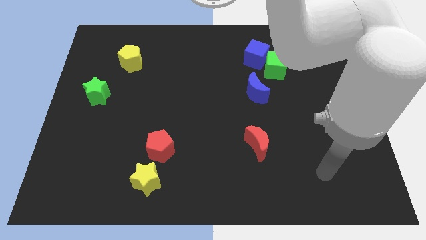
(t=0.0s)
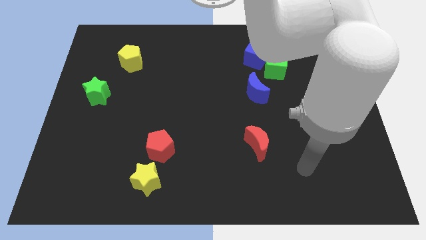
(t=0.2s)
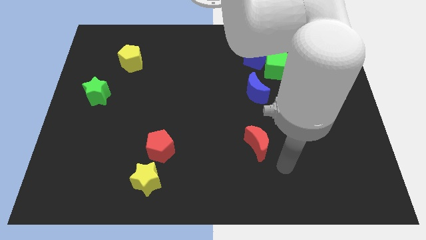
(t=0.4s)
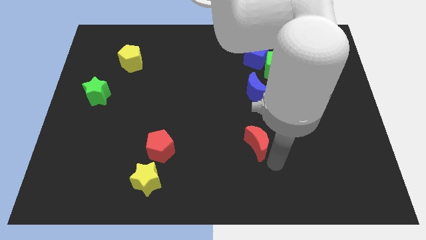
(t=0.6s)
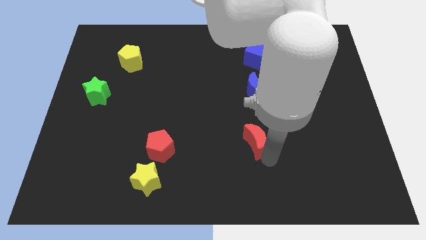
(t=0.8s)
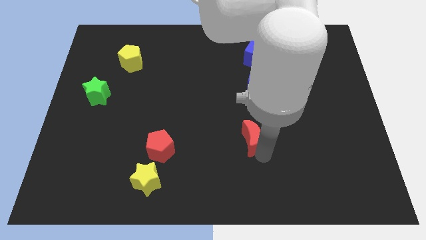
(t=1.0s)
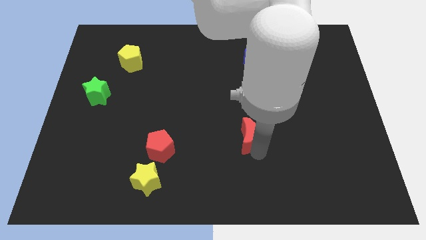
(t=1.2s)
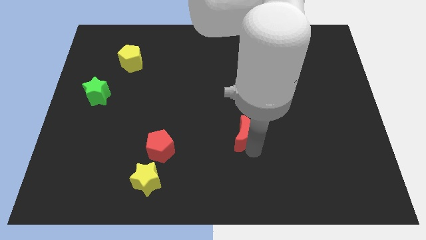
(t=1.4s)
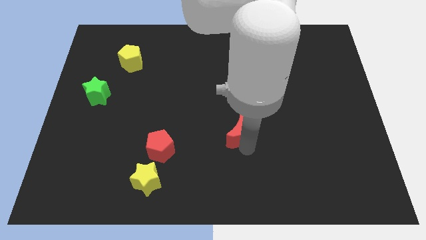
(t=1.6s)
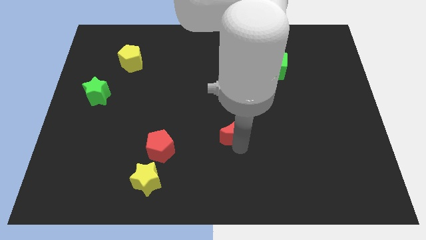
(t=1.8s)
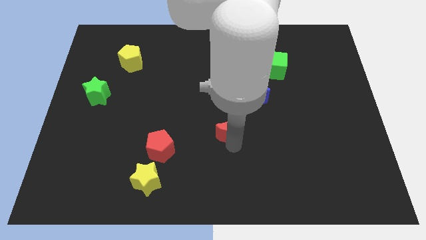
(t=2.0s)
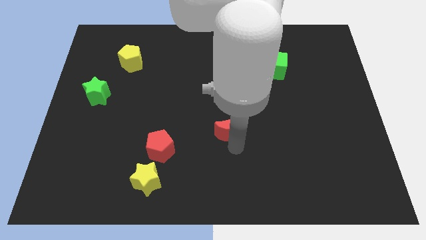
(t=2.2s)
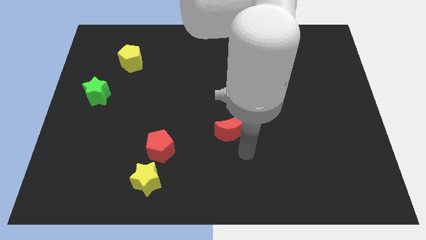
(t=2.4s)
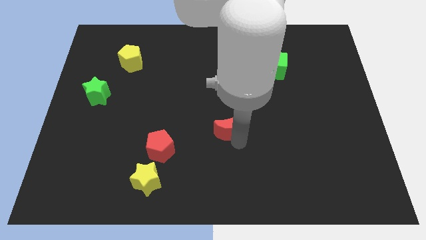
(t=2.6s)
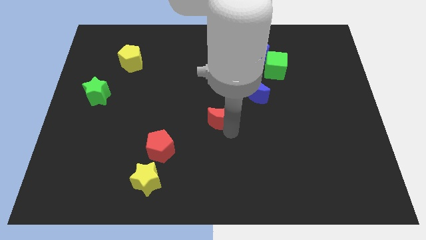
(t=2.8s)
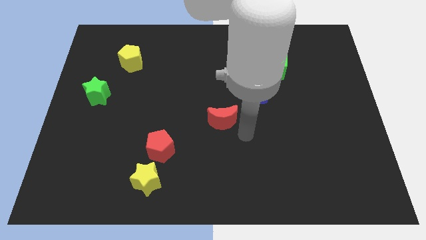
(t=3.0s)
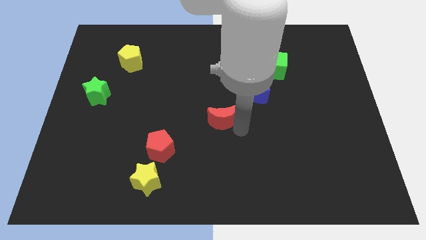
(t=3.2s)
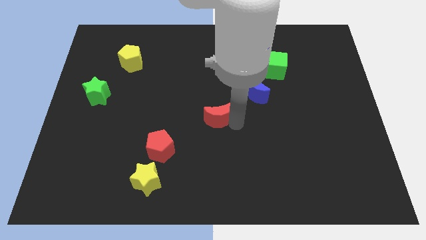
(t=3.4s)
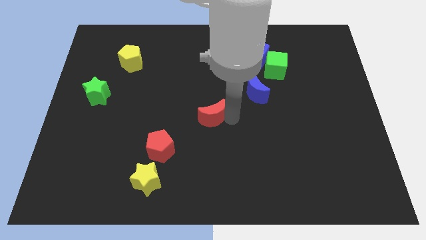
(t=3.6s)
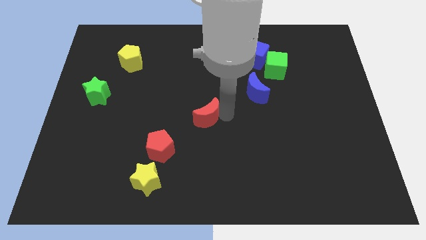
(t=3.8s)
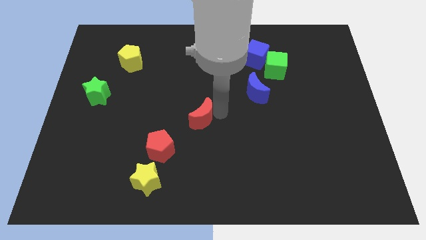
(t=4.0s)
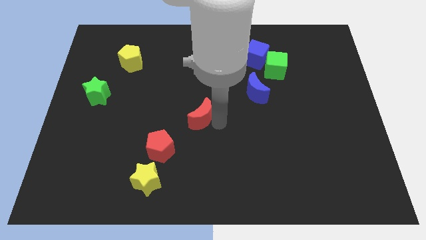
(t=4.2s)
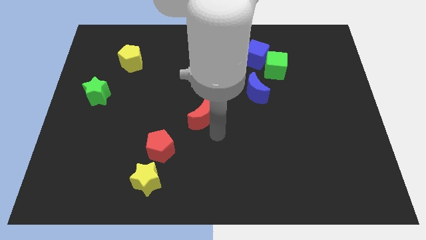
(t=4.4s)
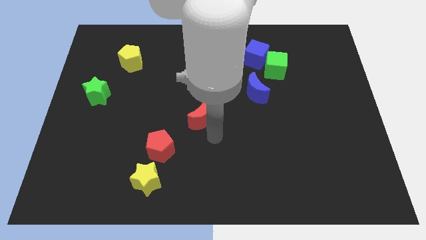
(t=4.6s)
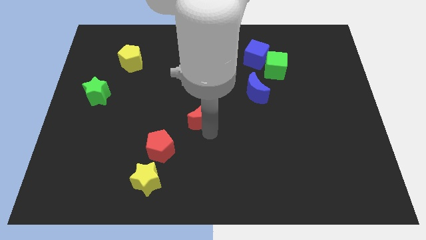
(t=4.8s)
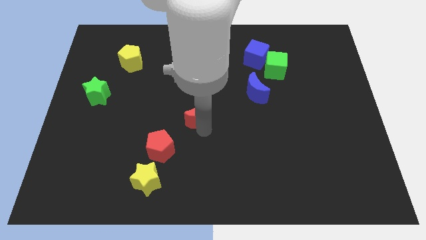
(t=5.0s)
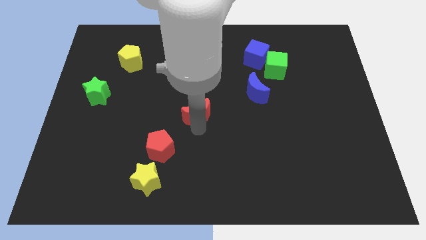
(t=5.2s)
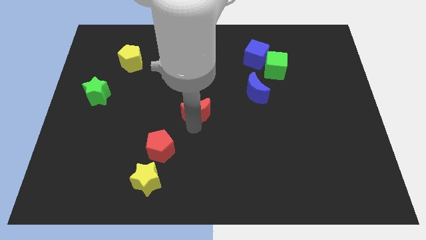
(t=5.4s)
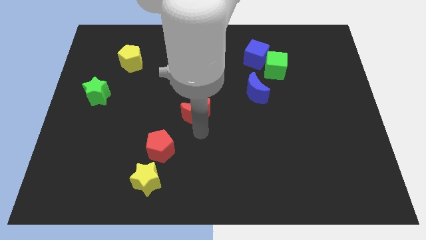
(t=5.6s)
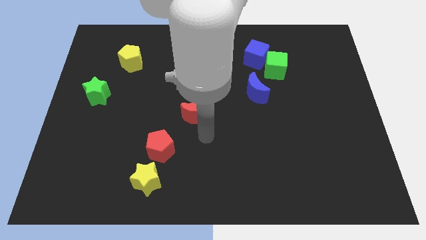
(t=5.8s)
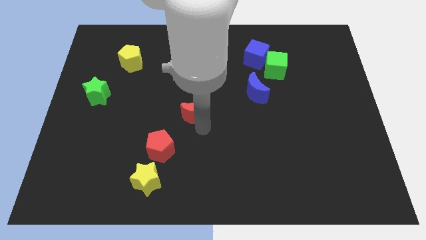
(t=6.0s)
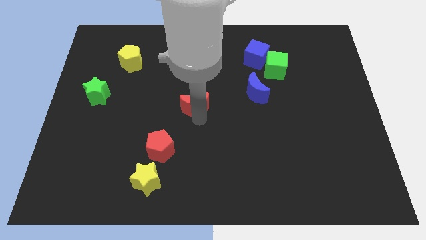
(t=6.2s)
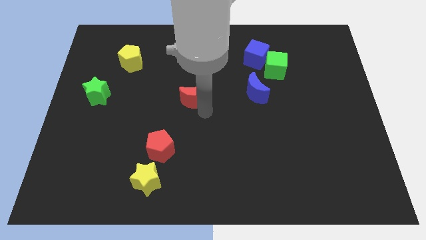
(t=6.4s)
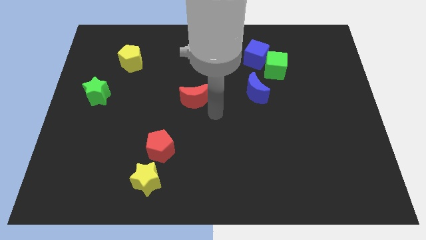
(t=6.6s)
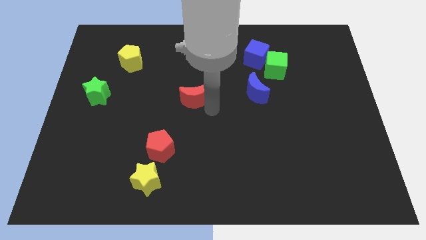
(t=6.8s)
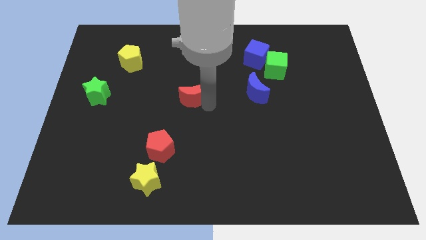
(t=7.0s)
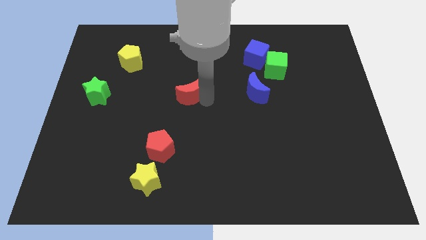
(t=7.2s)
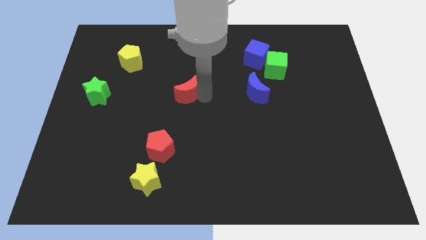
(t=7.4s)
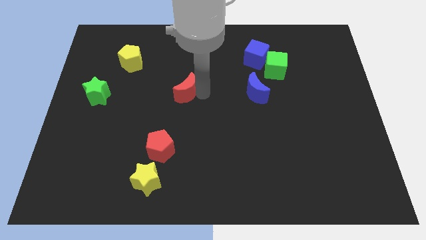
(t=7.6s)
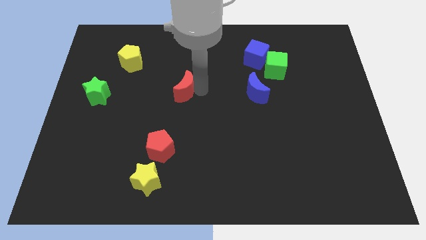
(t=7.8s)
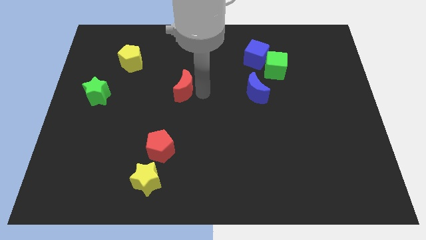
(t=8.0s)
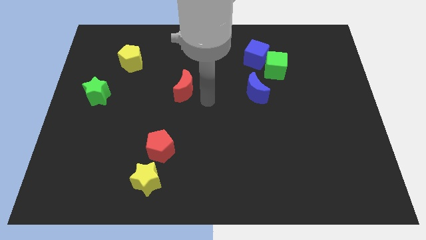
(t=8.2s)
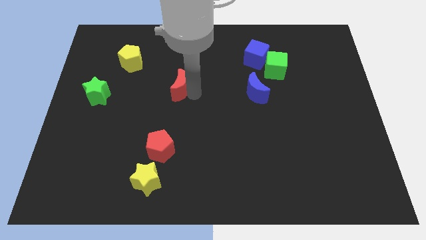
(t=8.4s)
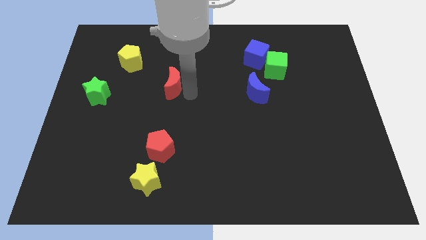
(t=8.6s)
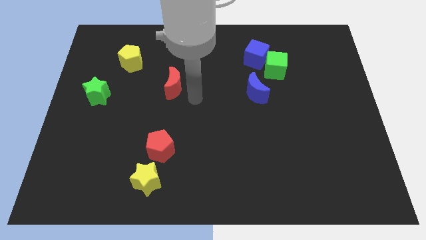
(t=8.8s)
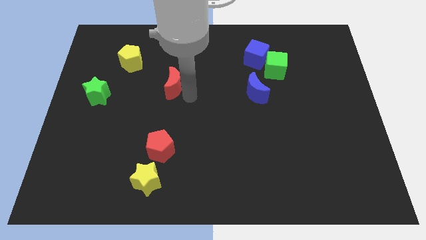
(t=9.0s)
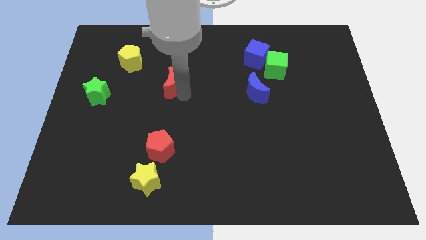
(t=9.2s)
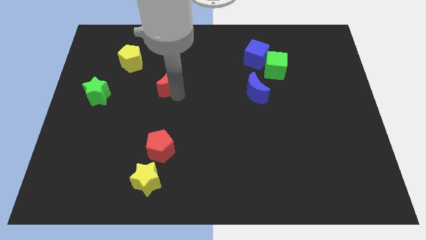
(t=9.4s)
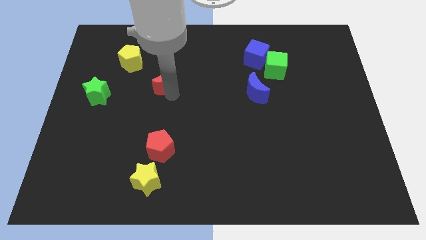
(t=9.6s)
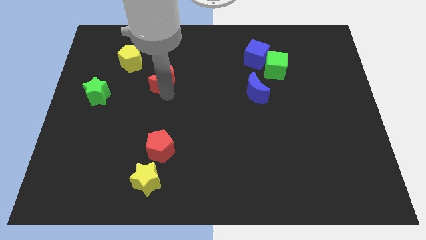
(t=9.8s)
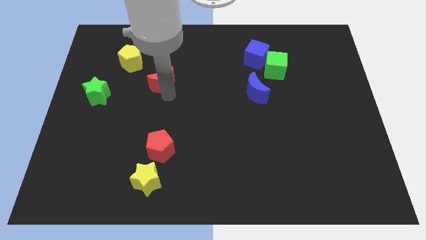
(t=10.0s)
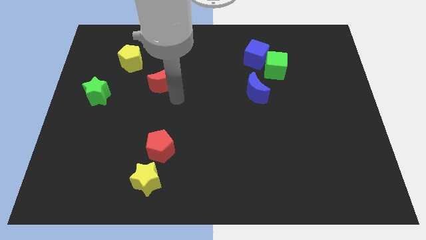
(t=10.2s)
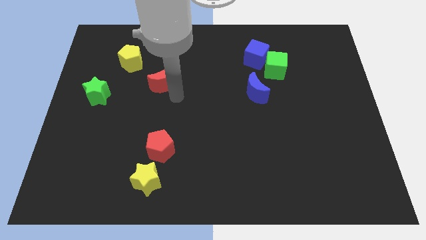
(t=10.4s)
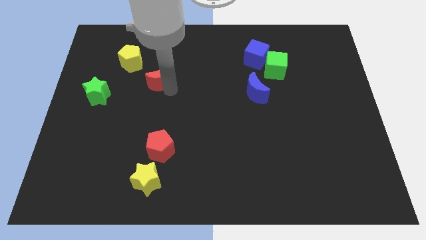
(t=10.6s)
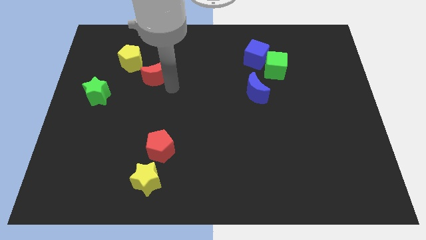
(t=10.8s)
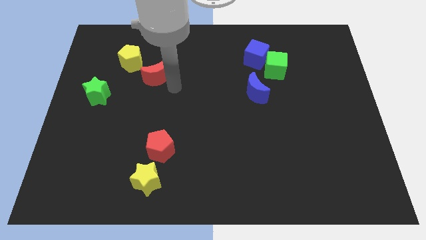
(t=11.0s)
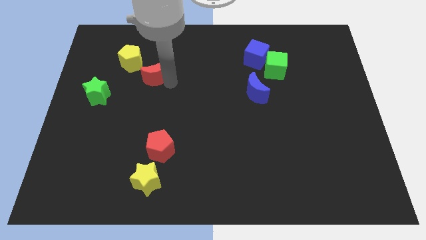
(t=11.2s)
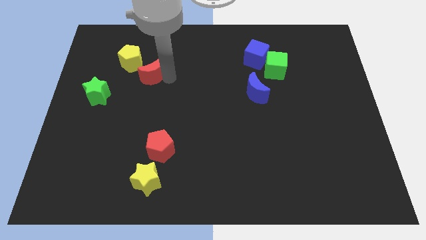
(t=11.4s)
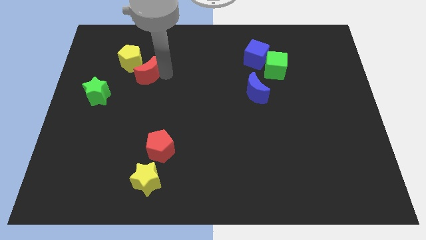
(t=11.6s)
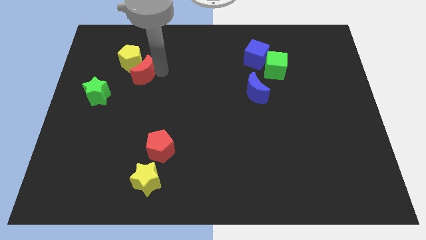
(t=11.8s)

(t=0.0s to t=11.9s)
put the red moon next to the yellow pentagon

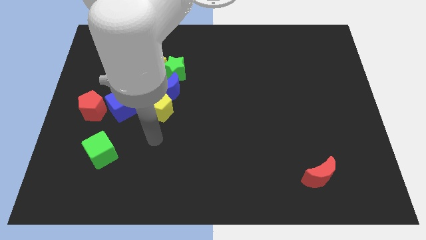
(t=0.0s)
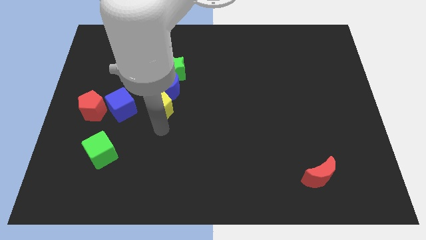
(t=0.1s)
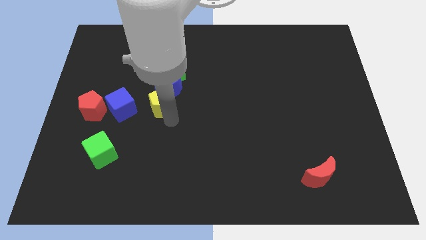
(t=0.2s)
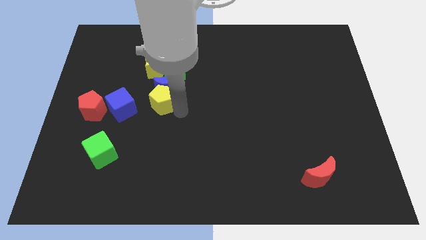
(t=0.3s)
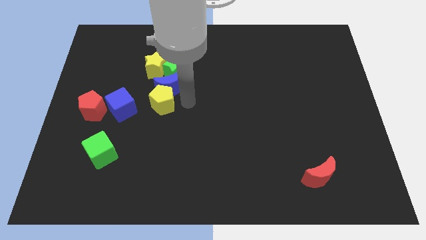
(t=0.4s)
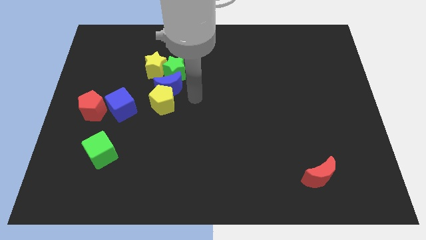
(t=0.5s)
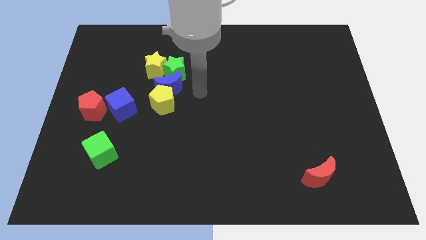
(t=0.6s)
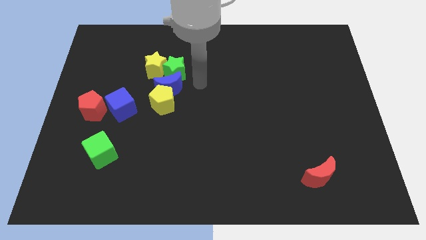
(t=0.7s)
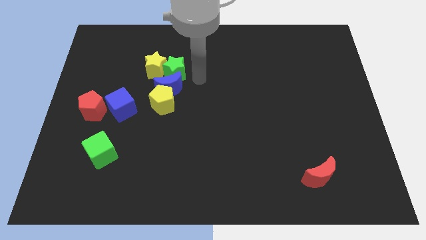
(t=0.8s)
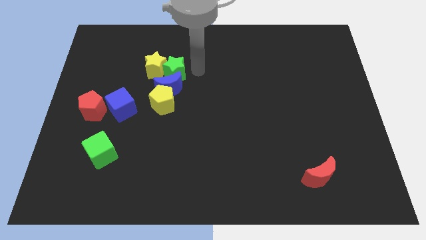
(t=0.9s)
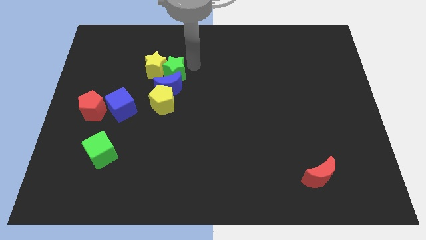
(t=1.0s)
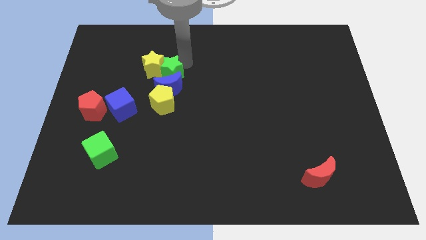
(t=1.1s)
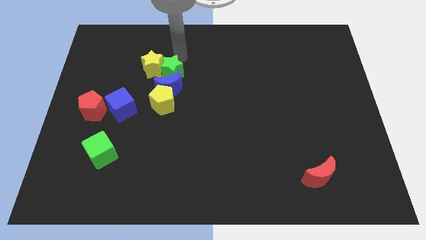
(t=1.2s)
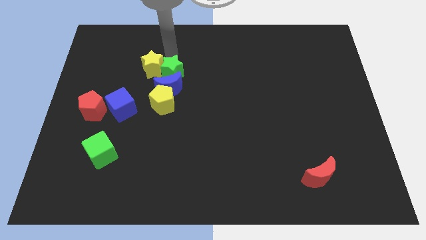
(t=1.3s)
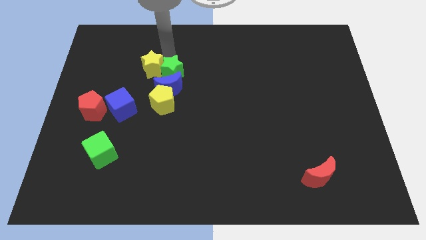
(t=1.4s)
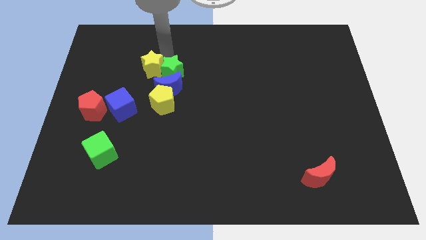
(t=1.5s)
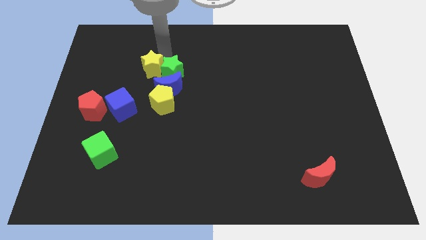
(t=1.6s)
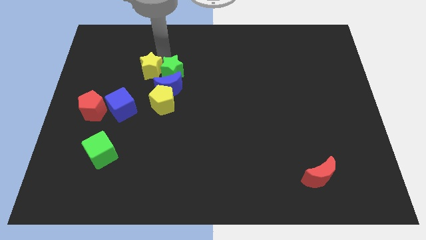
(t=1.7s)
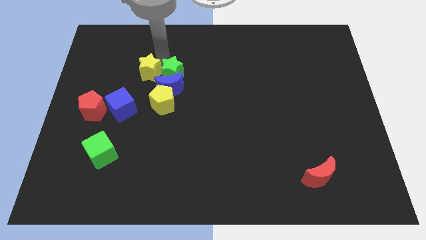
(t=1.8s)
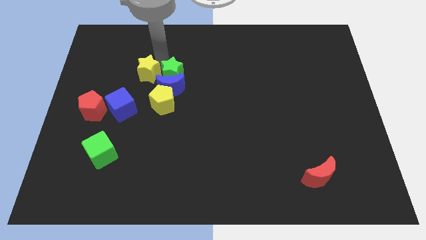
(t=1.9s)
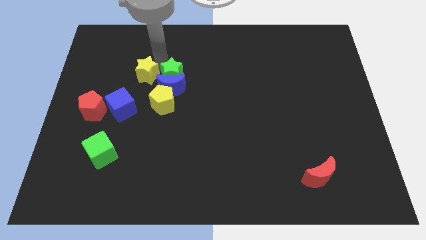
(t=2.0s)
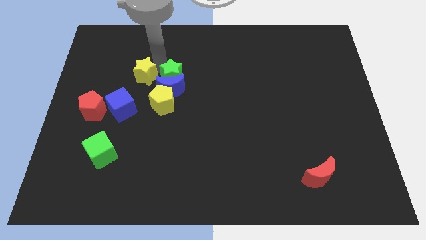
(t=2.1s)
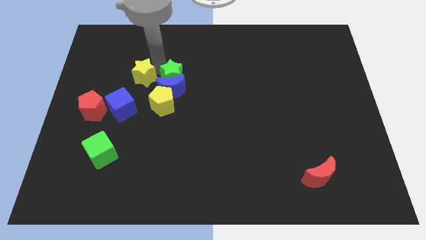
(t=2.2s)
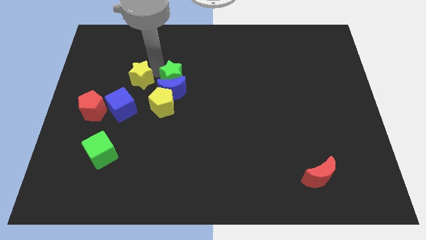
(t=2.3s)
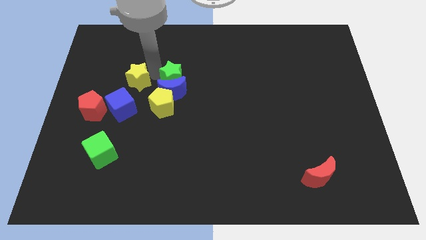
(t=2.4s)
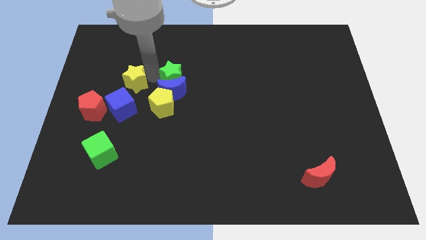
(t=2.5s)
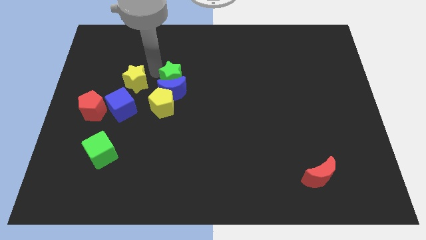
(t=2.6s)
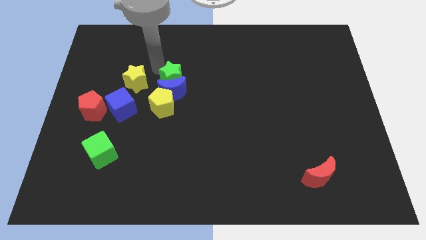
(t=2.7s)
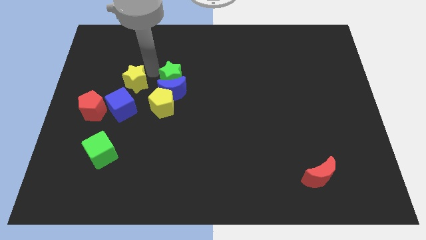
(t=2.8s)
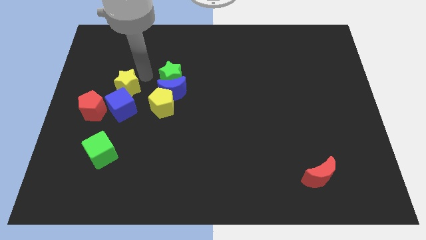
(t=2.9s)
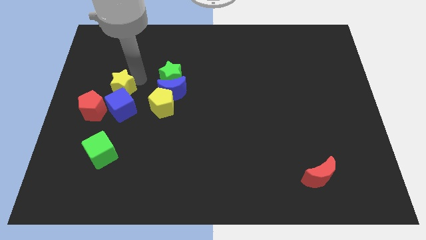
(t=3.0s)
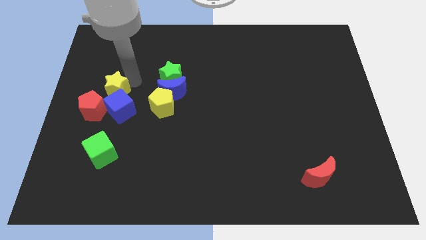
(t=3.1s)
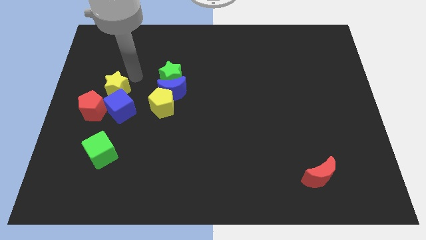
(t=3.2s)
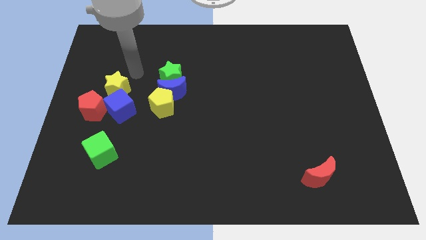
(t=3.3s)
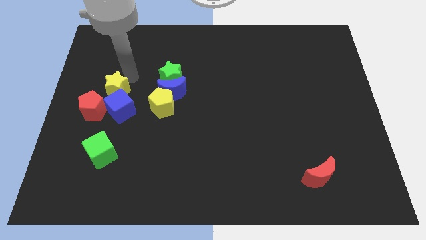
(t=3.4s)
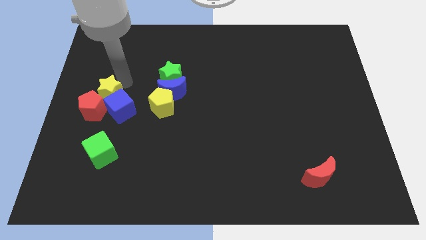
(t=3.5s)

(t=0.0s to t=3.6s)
put the yellow star to the red pentagon
